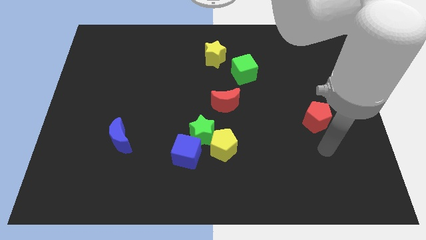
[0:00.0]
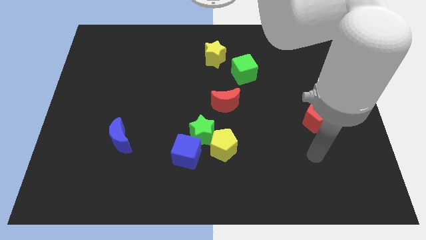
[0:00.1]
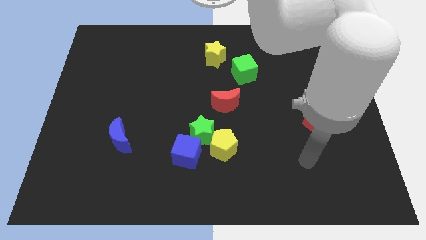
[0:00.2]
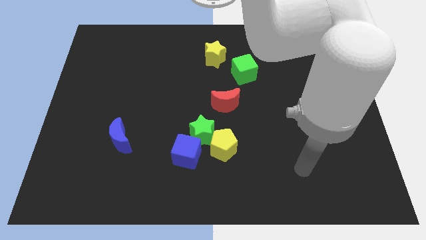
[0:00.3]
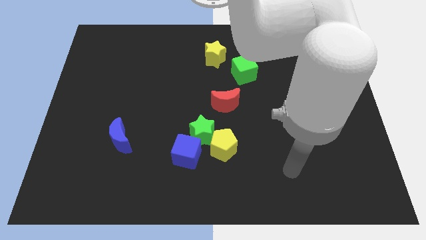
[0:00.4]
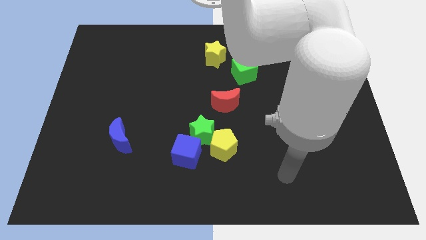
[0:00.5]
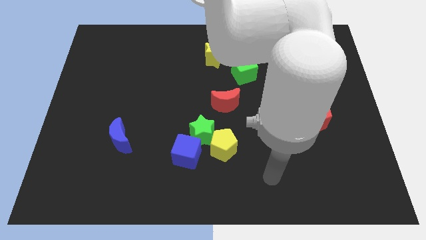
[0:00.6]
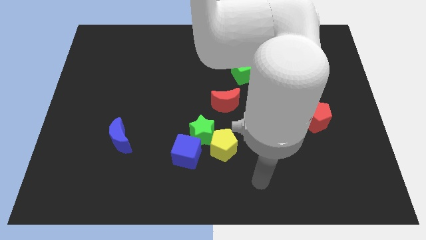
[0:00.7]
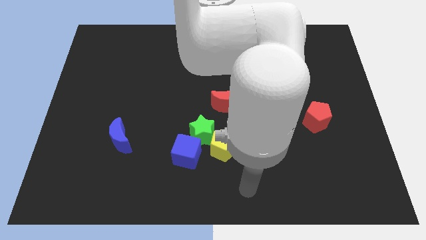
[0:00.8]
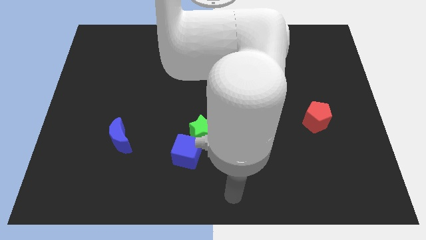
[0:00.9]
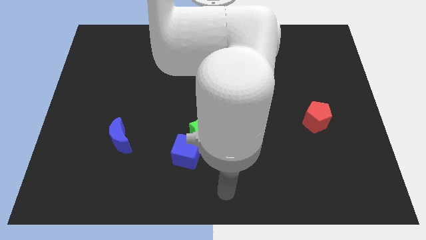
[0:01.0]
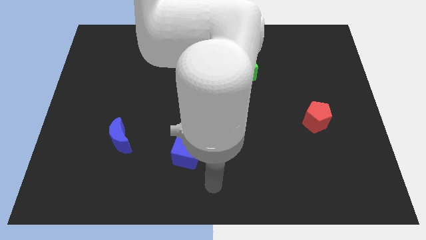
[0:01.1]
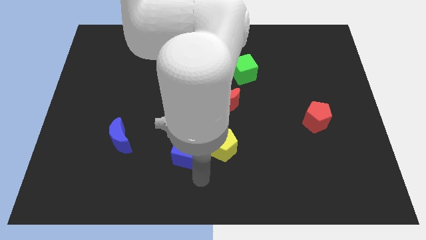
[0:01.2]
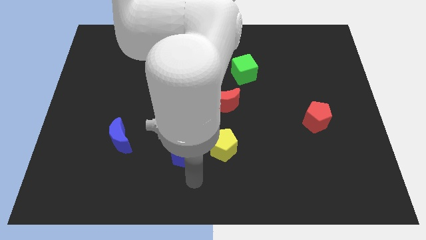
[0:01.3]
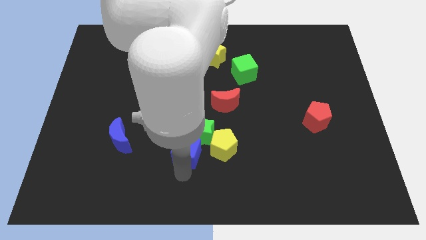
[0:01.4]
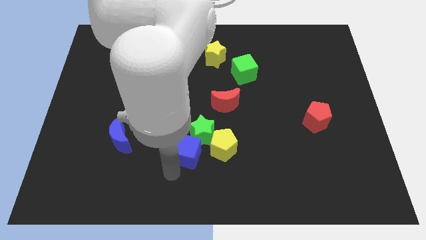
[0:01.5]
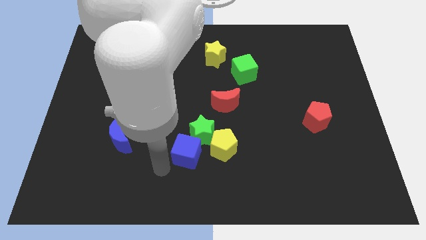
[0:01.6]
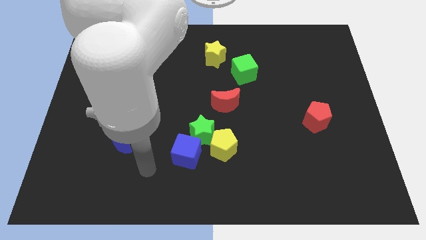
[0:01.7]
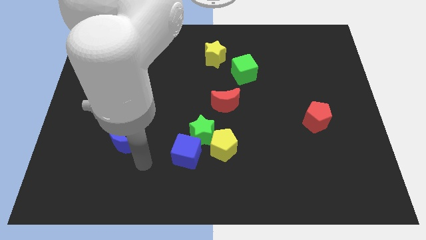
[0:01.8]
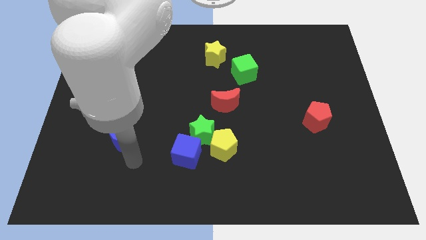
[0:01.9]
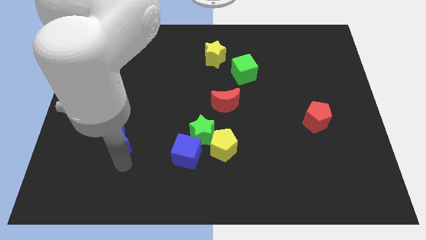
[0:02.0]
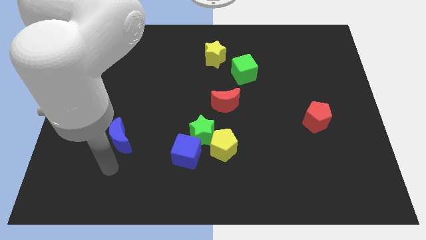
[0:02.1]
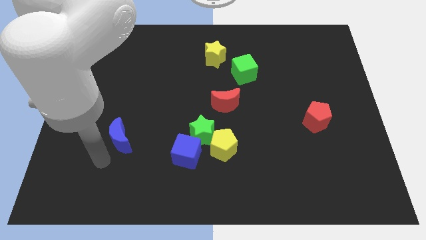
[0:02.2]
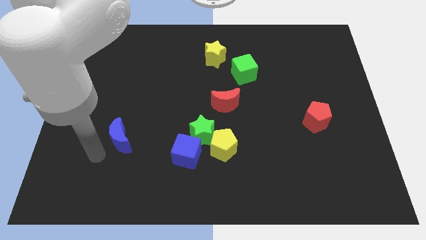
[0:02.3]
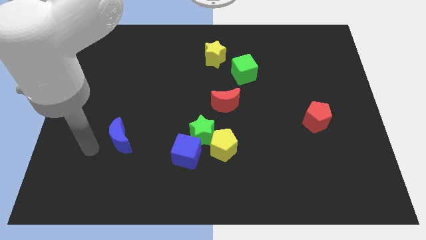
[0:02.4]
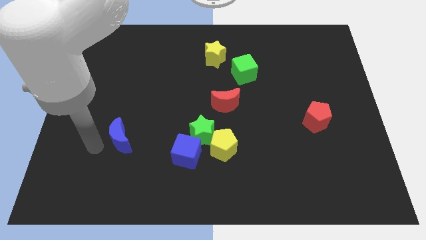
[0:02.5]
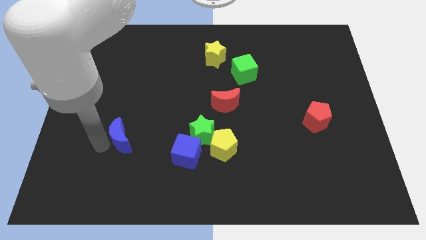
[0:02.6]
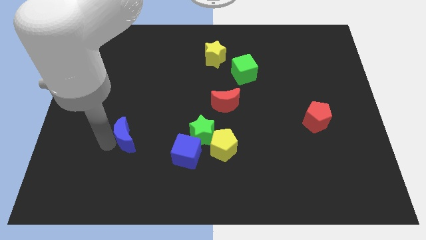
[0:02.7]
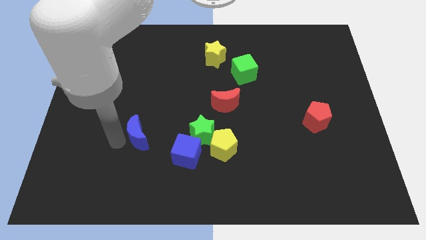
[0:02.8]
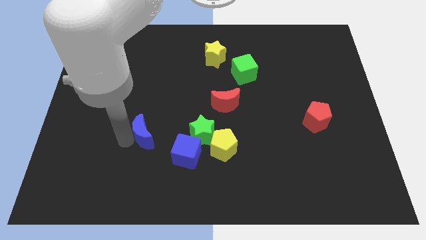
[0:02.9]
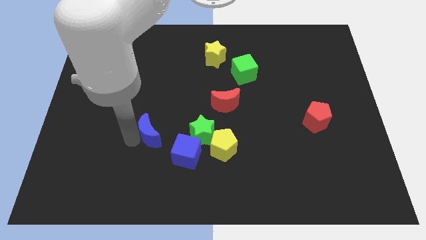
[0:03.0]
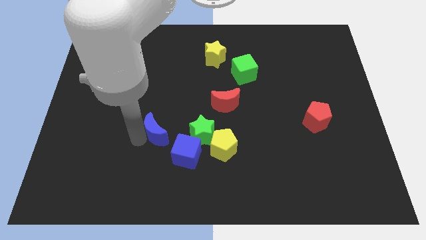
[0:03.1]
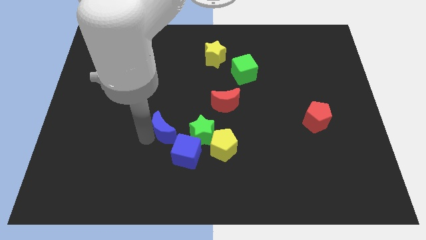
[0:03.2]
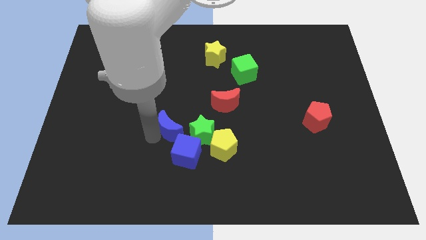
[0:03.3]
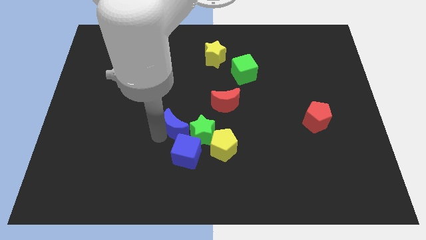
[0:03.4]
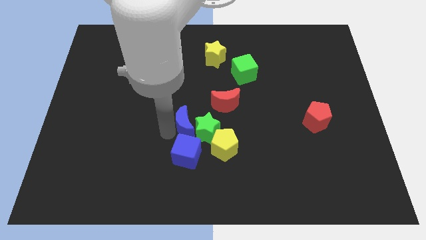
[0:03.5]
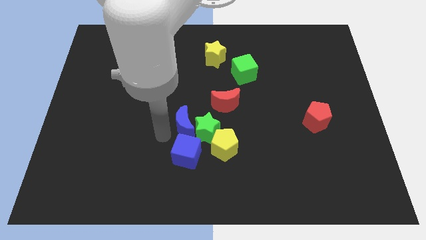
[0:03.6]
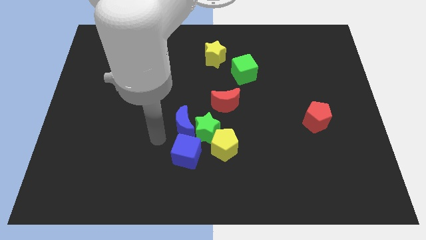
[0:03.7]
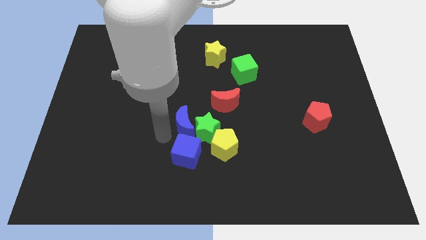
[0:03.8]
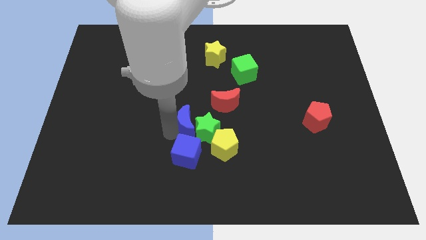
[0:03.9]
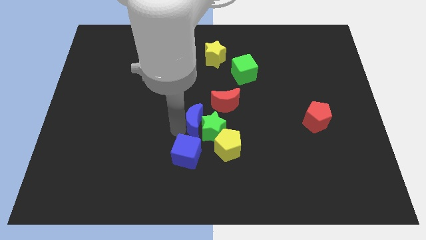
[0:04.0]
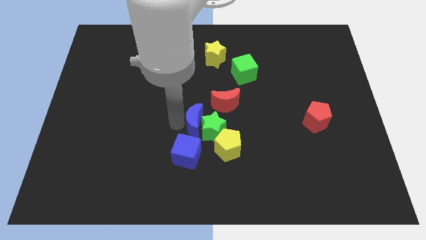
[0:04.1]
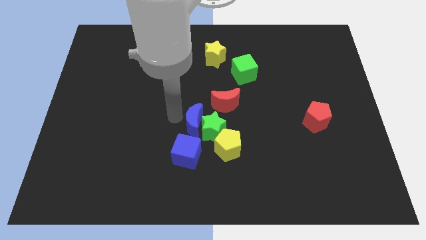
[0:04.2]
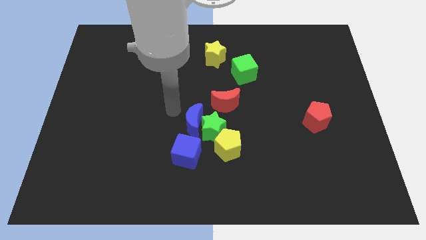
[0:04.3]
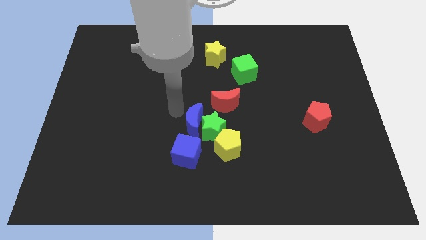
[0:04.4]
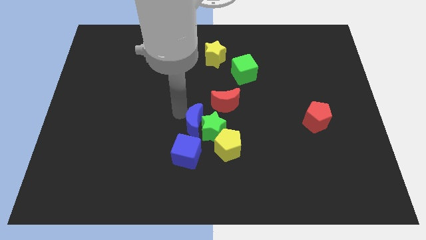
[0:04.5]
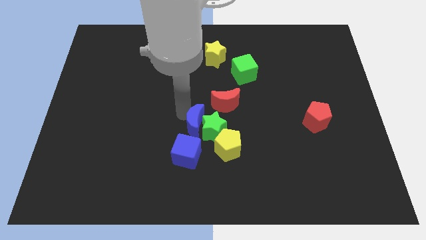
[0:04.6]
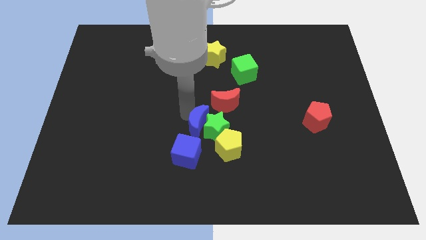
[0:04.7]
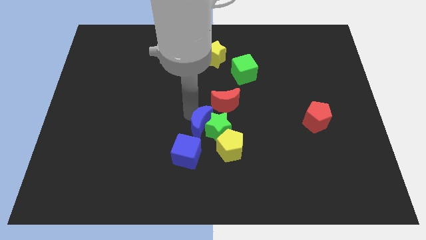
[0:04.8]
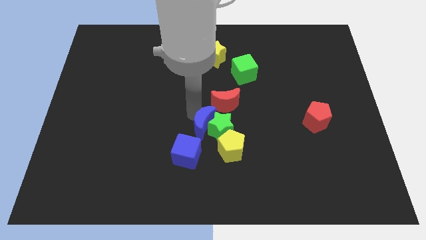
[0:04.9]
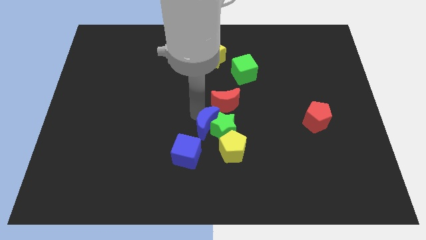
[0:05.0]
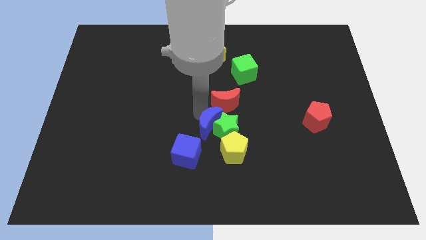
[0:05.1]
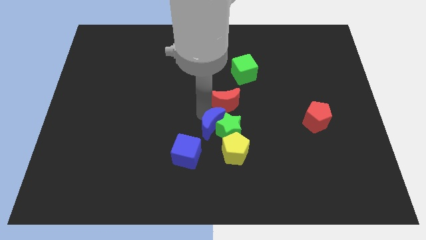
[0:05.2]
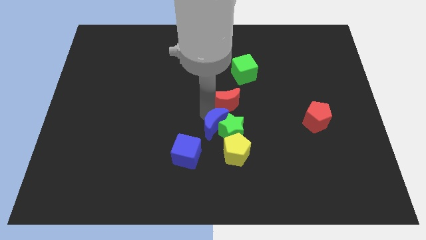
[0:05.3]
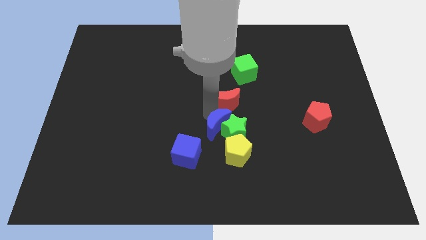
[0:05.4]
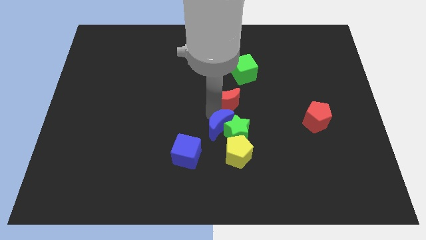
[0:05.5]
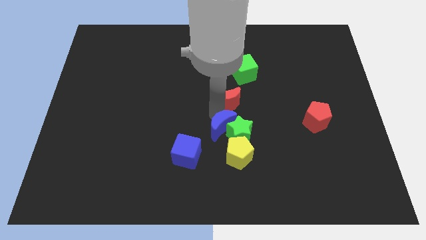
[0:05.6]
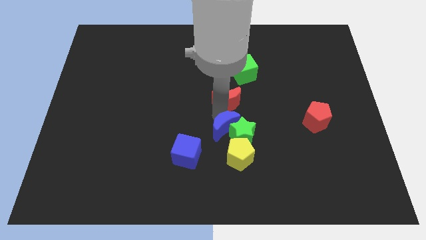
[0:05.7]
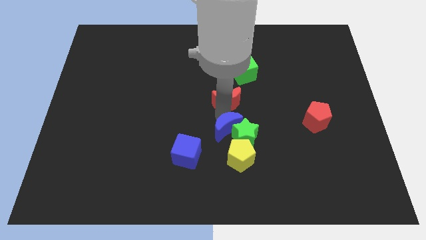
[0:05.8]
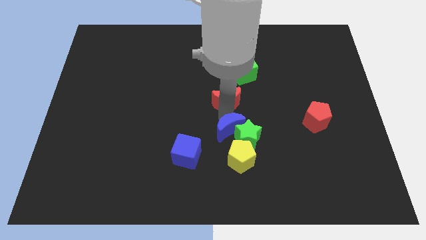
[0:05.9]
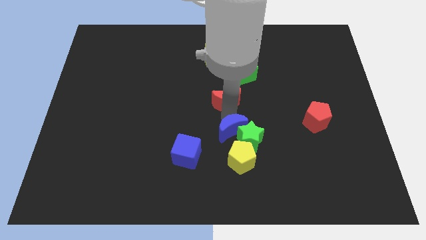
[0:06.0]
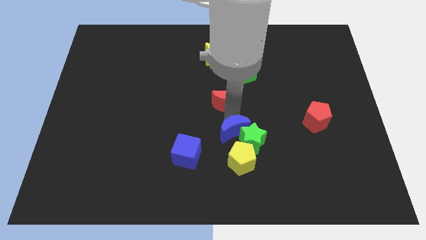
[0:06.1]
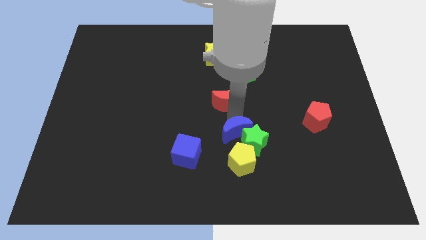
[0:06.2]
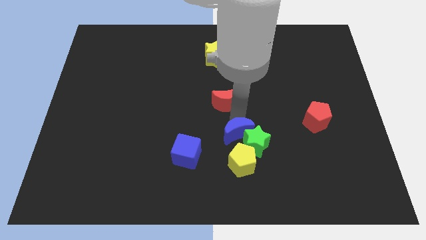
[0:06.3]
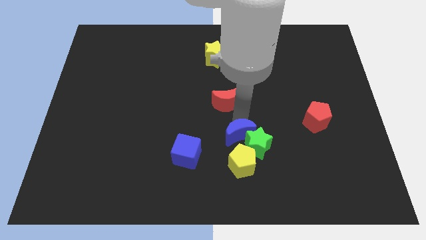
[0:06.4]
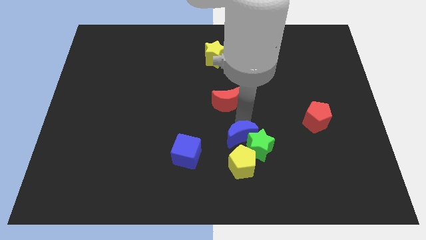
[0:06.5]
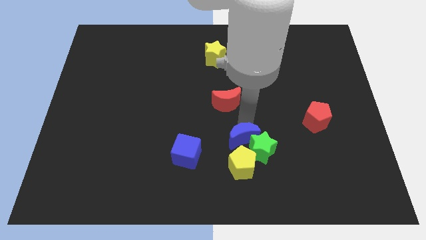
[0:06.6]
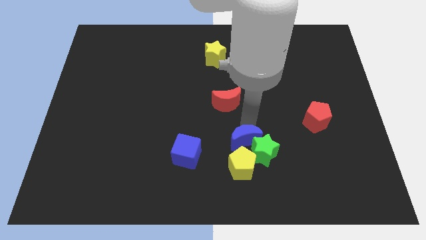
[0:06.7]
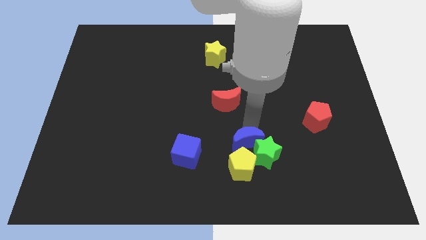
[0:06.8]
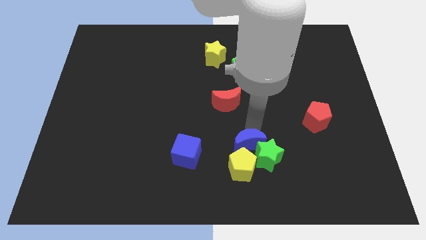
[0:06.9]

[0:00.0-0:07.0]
push the blue moon next to the yellow pentagon
